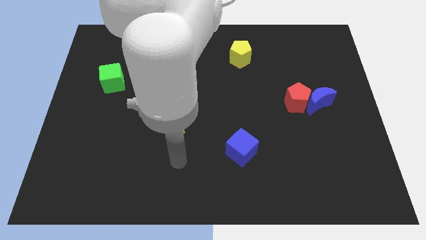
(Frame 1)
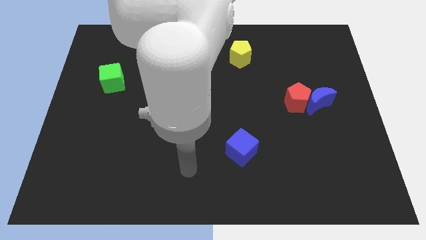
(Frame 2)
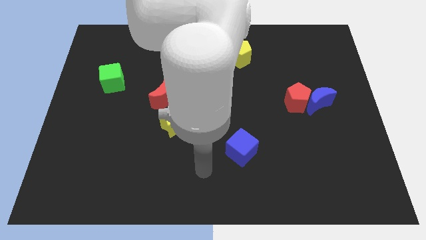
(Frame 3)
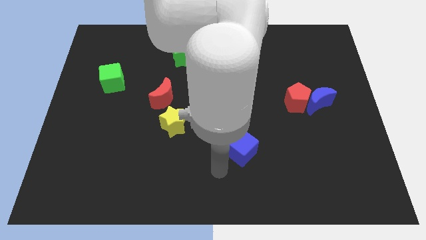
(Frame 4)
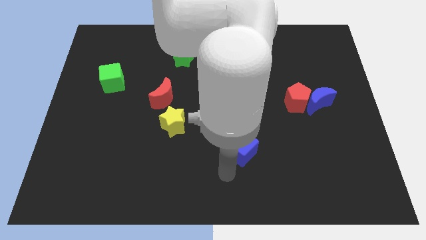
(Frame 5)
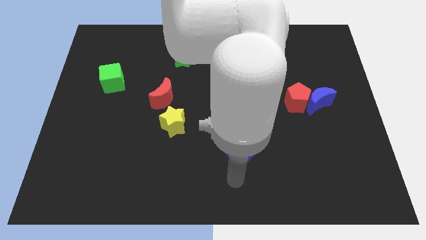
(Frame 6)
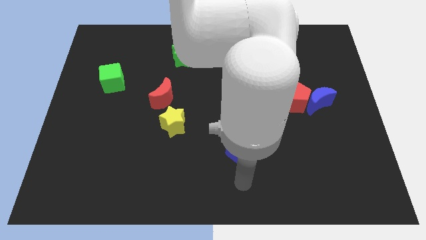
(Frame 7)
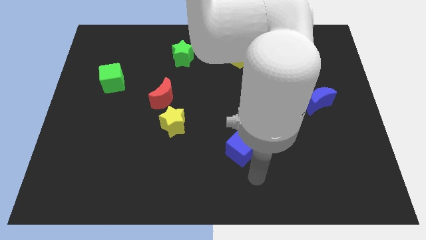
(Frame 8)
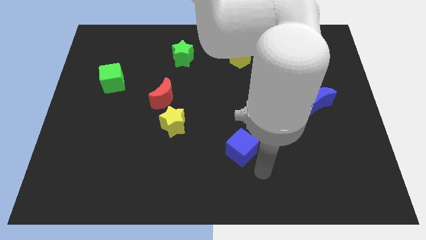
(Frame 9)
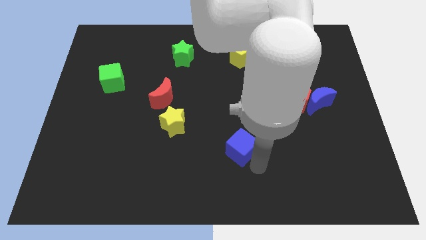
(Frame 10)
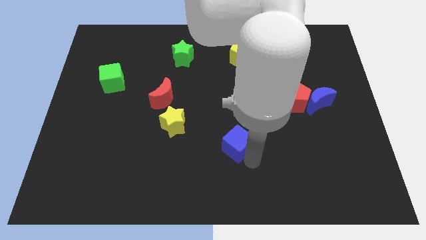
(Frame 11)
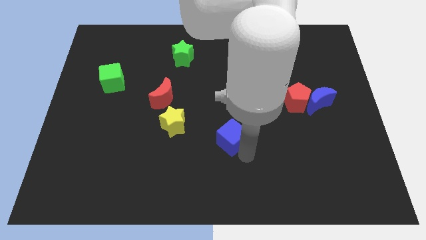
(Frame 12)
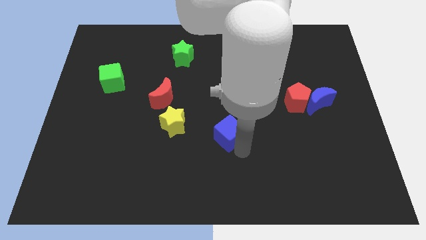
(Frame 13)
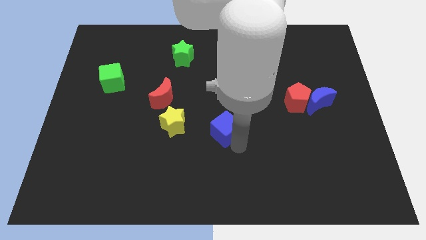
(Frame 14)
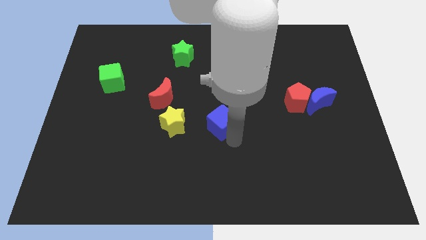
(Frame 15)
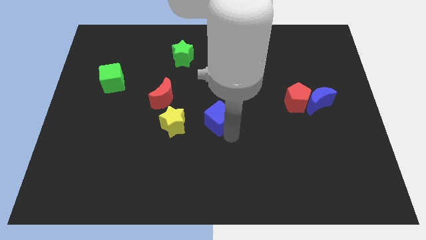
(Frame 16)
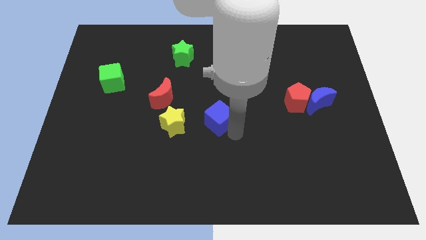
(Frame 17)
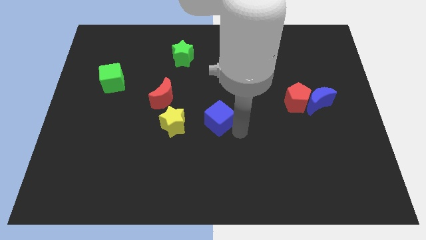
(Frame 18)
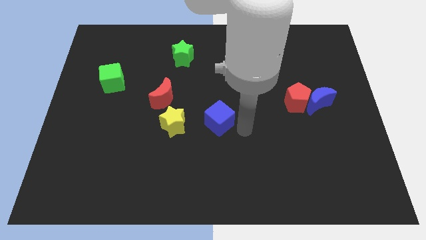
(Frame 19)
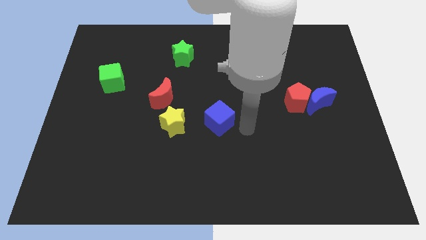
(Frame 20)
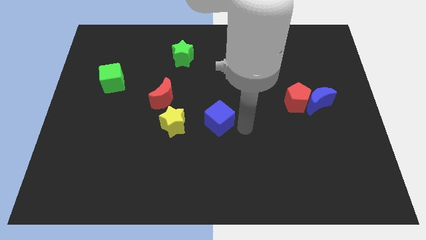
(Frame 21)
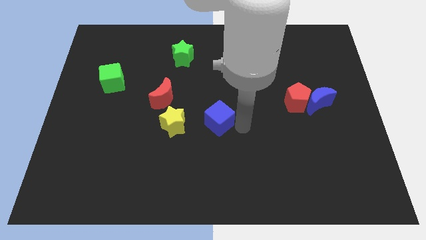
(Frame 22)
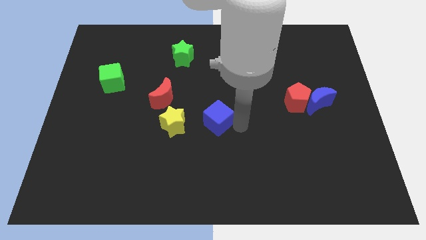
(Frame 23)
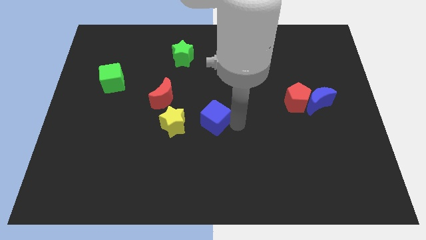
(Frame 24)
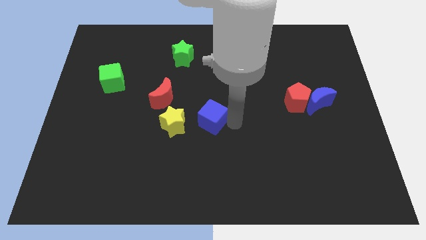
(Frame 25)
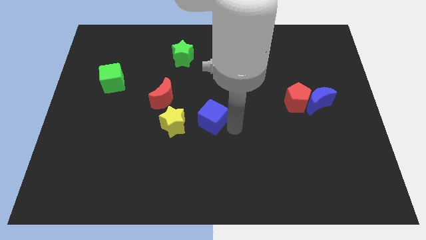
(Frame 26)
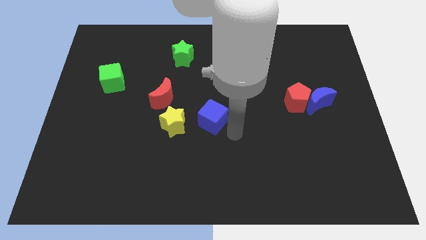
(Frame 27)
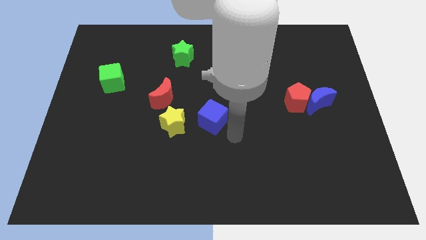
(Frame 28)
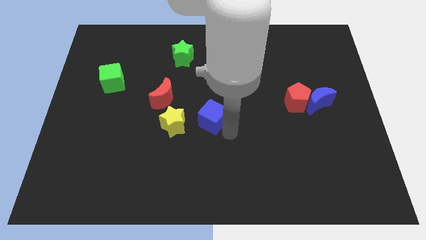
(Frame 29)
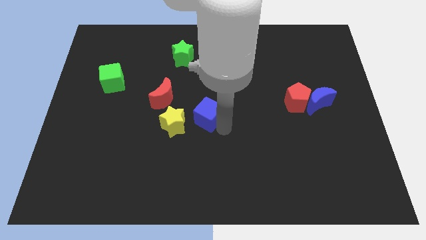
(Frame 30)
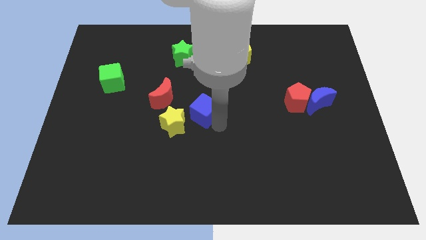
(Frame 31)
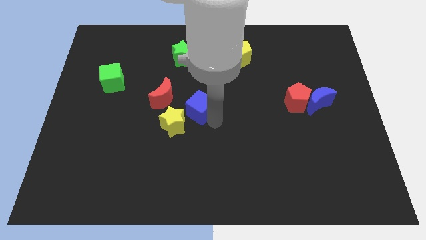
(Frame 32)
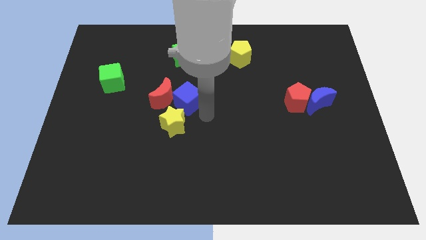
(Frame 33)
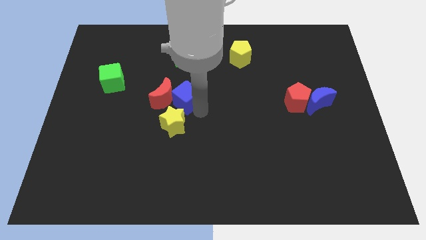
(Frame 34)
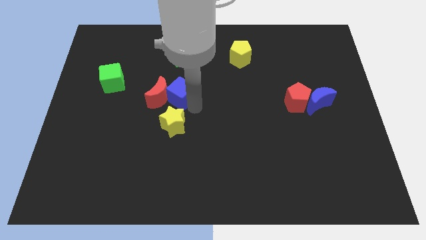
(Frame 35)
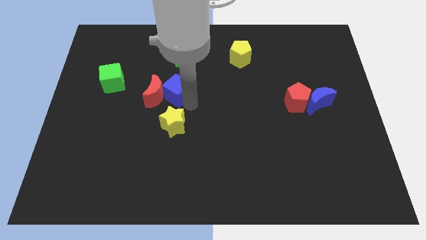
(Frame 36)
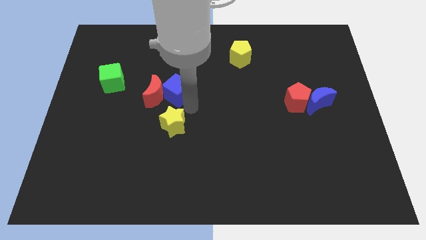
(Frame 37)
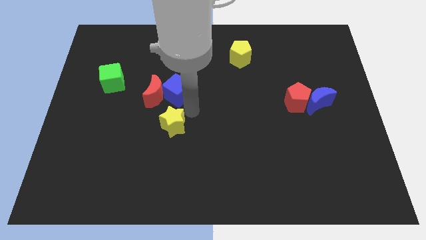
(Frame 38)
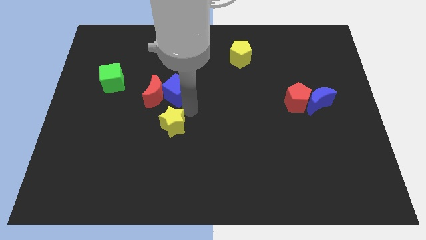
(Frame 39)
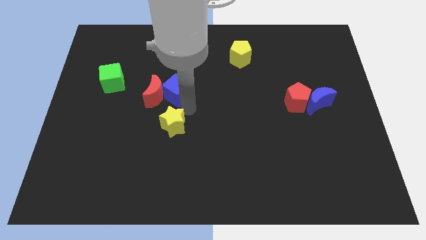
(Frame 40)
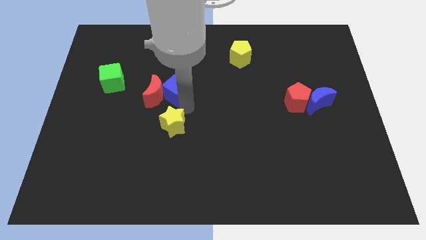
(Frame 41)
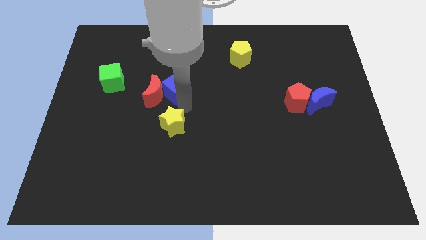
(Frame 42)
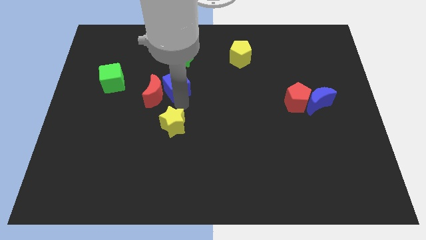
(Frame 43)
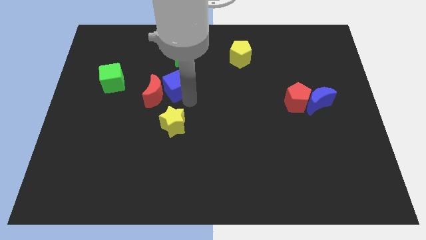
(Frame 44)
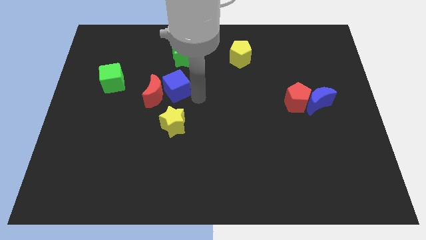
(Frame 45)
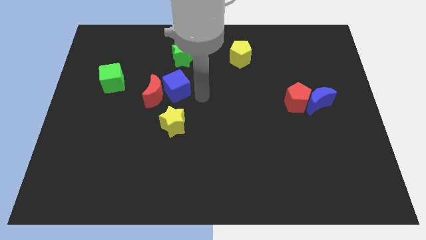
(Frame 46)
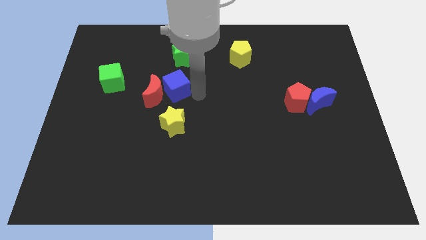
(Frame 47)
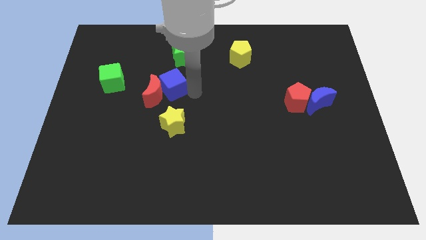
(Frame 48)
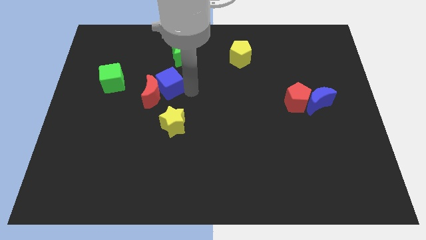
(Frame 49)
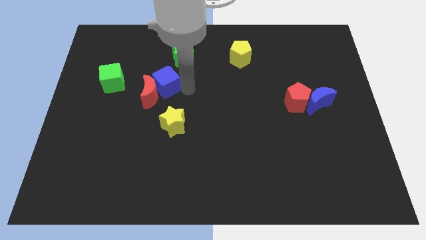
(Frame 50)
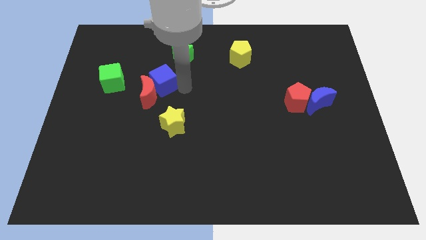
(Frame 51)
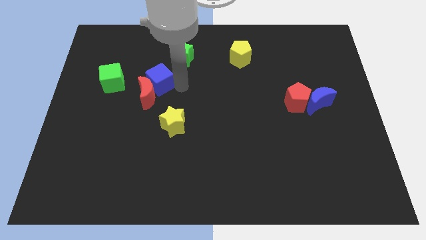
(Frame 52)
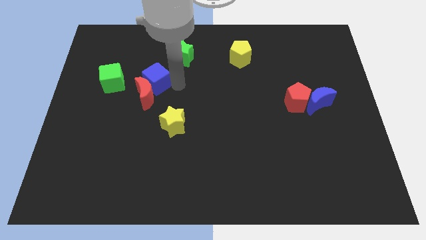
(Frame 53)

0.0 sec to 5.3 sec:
put the blue cube to the top left of the red moon

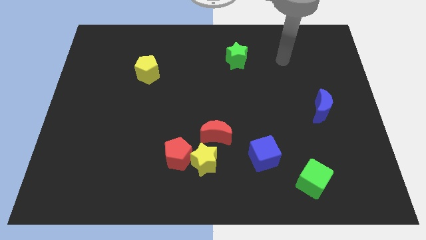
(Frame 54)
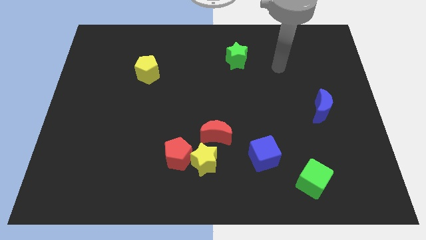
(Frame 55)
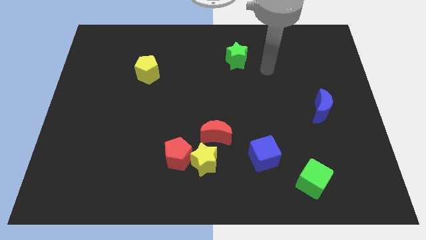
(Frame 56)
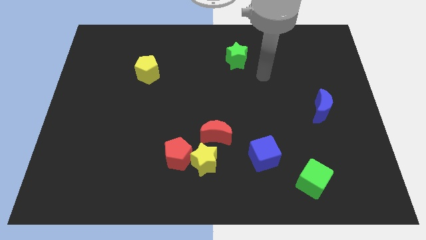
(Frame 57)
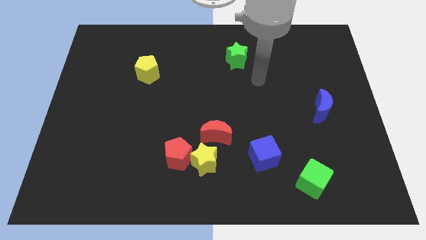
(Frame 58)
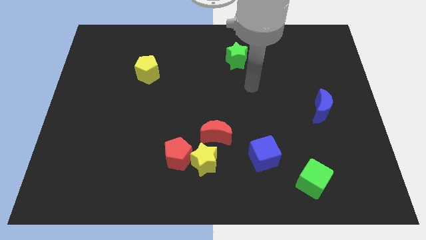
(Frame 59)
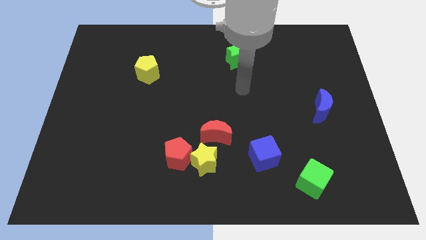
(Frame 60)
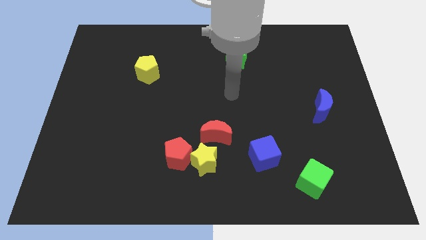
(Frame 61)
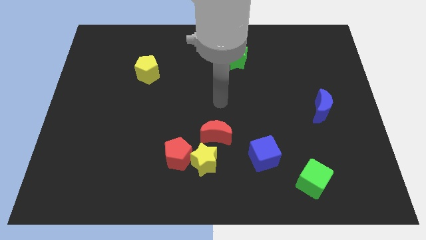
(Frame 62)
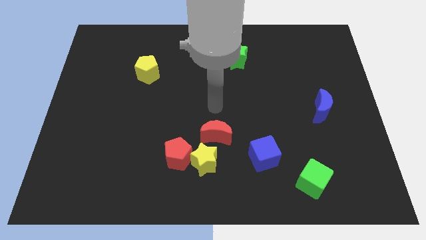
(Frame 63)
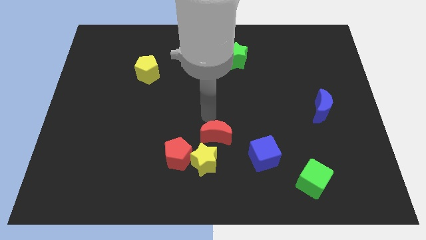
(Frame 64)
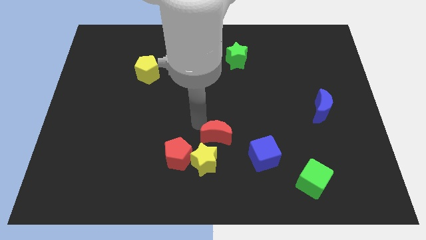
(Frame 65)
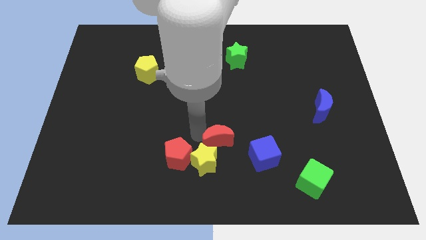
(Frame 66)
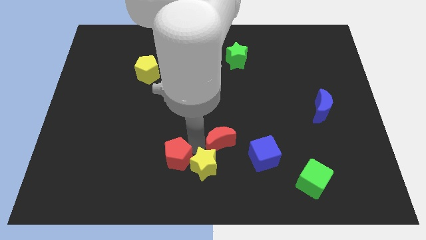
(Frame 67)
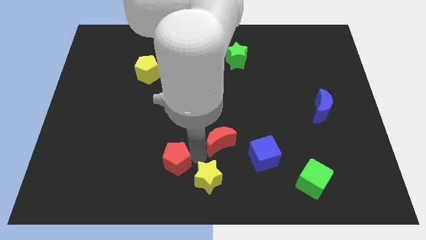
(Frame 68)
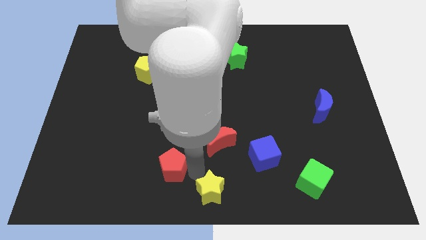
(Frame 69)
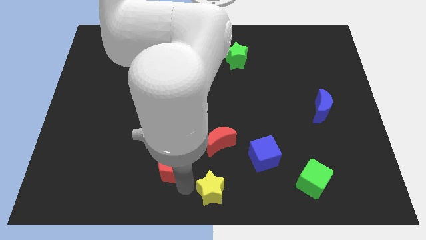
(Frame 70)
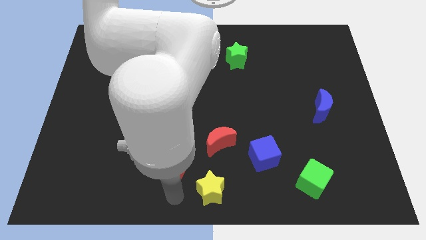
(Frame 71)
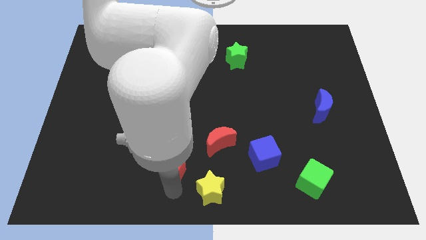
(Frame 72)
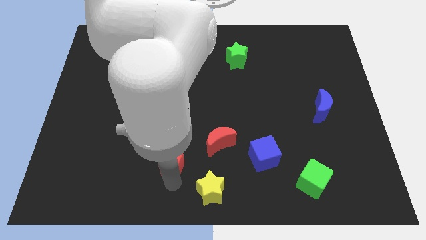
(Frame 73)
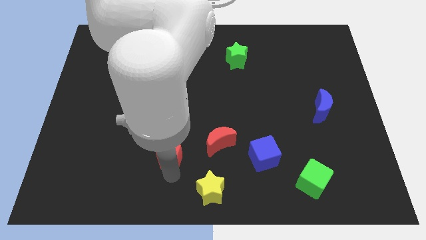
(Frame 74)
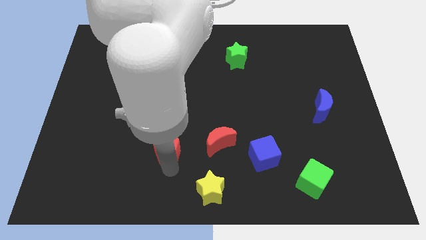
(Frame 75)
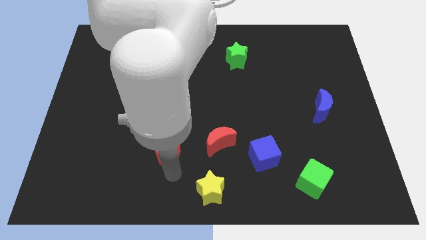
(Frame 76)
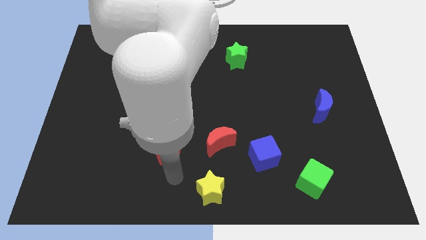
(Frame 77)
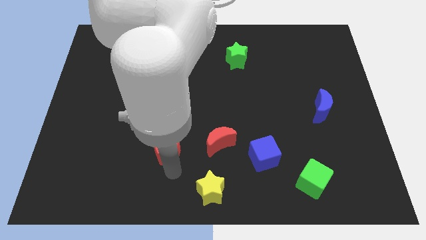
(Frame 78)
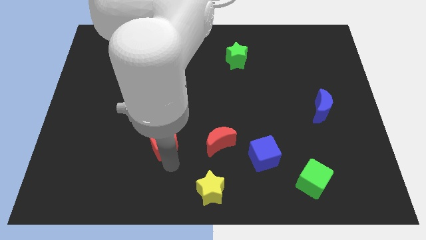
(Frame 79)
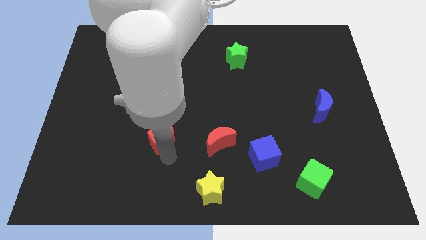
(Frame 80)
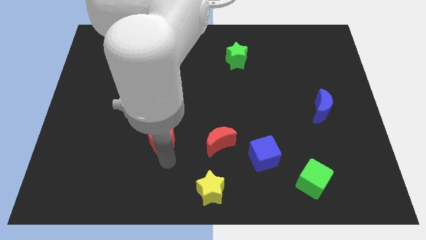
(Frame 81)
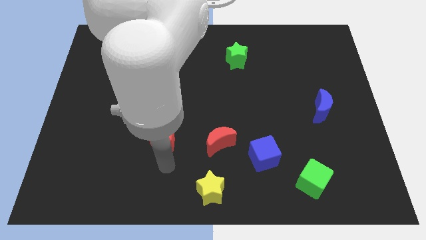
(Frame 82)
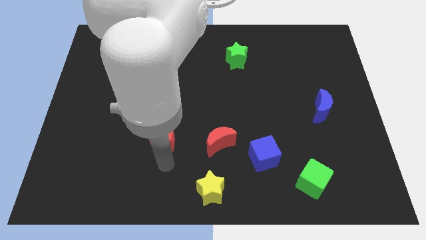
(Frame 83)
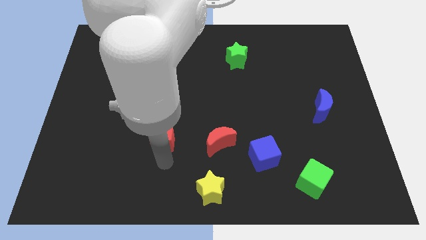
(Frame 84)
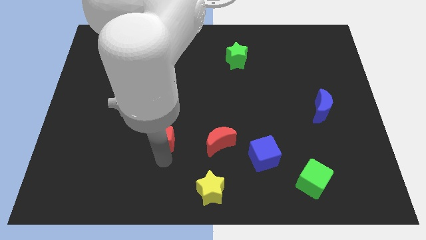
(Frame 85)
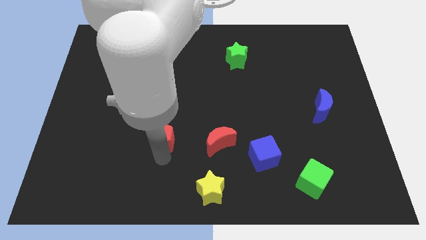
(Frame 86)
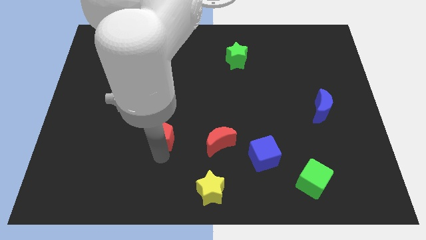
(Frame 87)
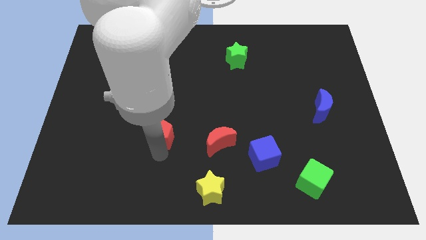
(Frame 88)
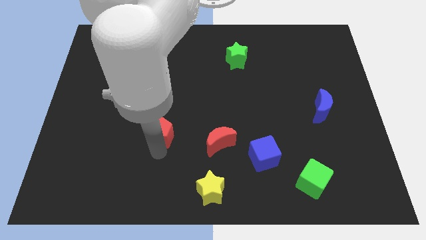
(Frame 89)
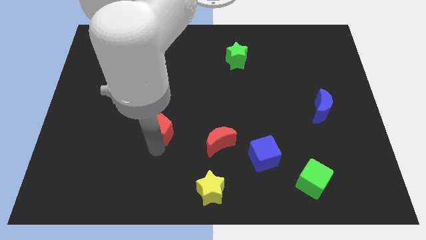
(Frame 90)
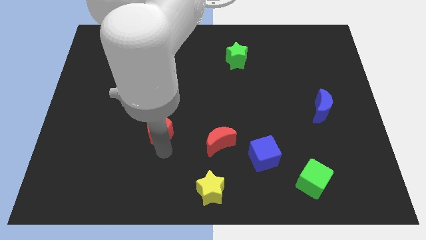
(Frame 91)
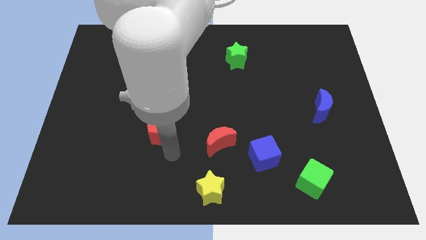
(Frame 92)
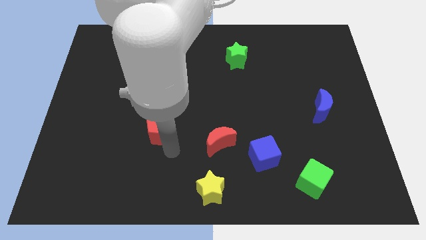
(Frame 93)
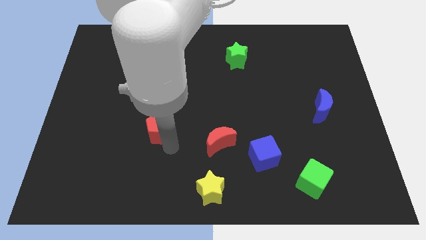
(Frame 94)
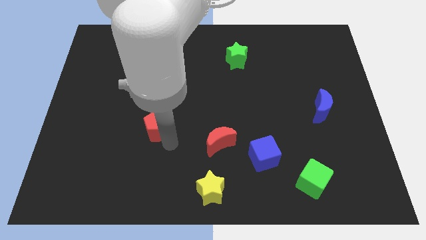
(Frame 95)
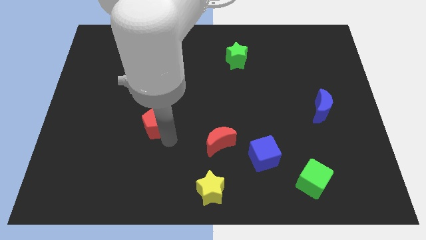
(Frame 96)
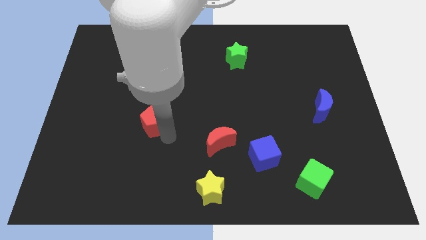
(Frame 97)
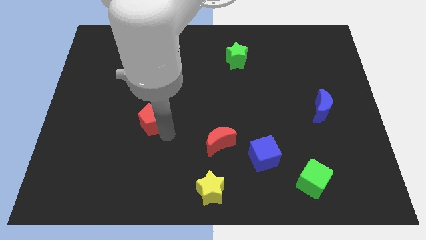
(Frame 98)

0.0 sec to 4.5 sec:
put the red pentagon to the bottom of the yellow pentagon
